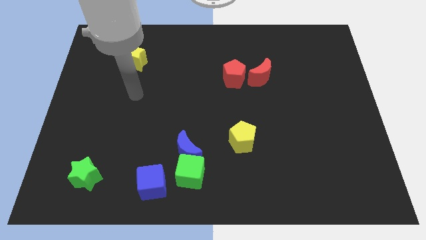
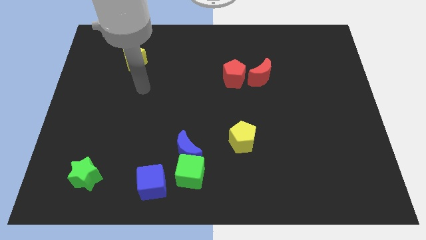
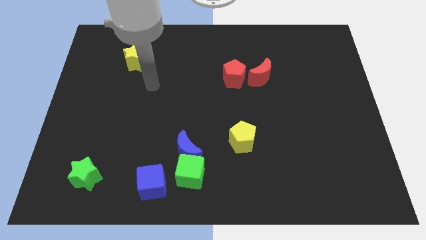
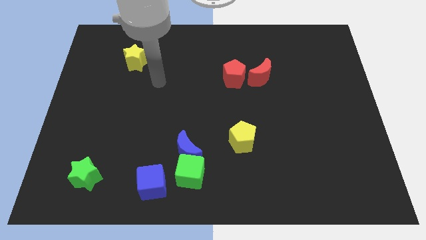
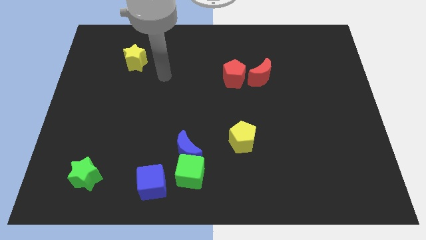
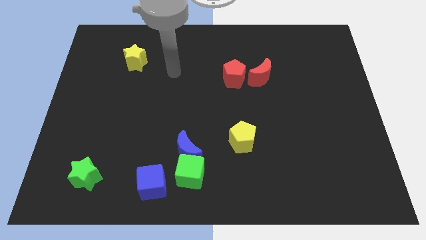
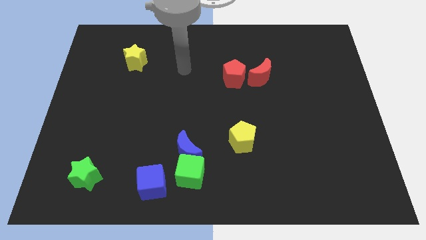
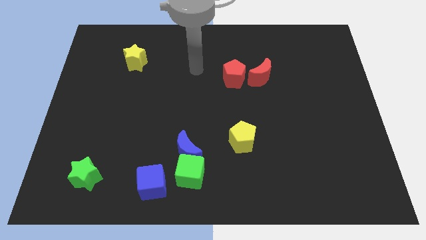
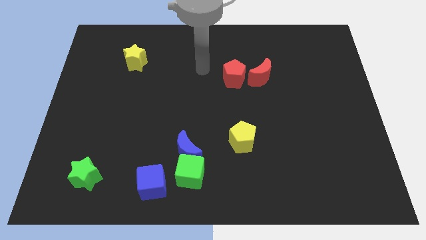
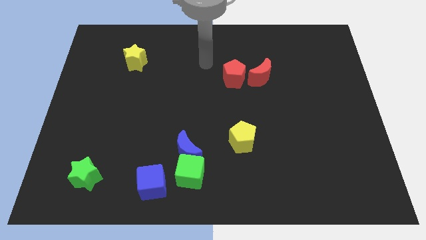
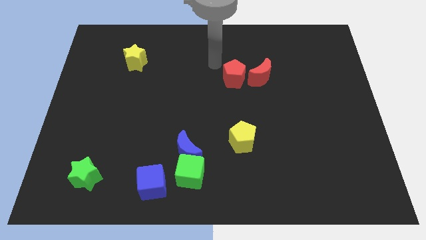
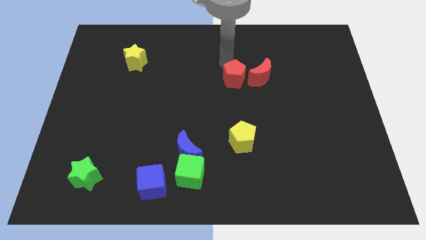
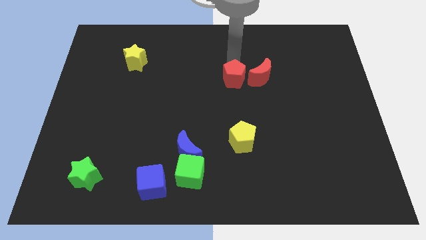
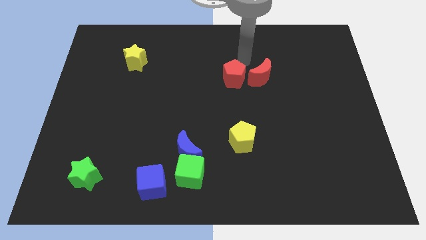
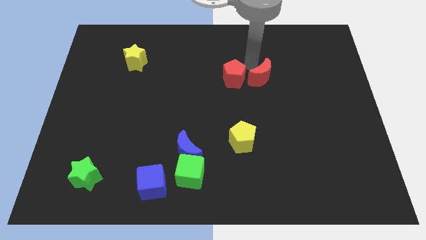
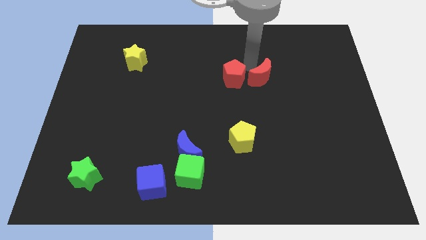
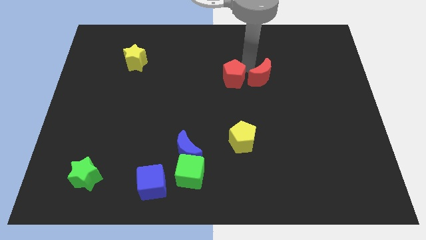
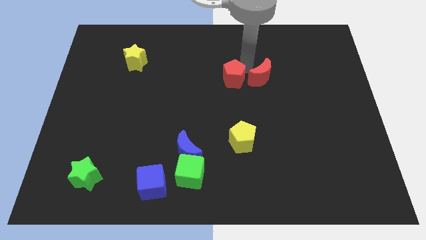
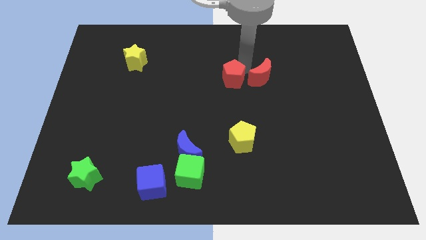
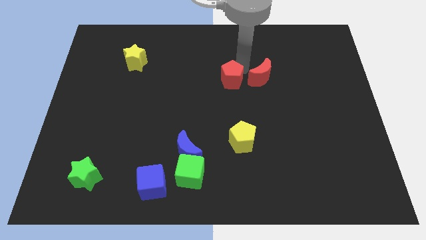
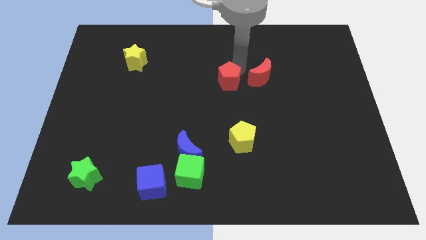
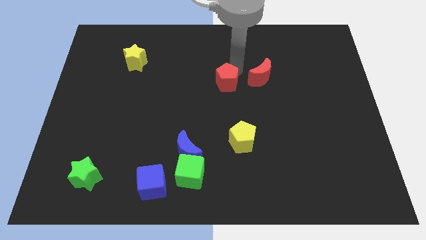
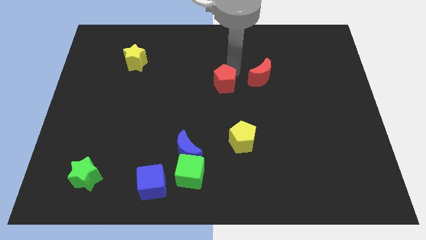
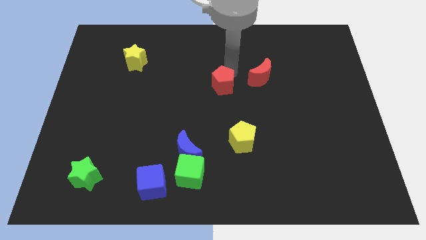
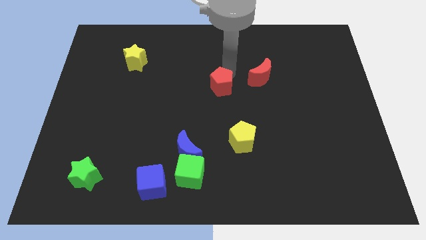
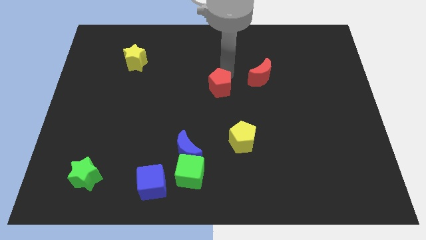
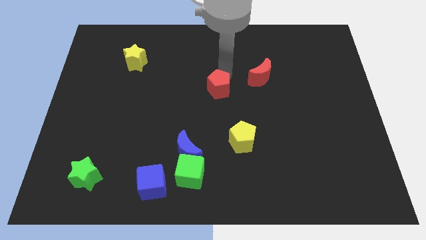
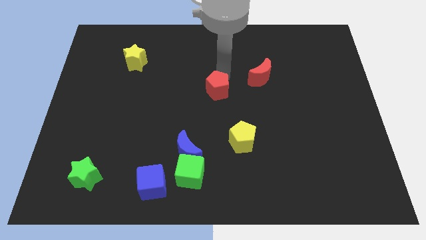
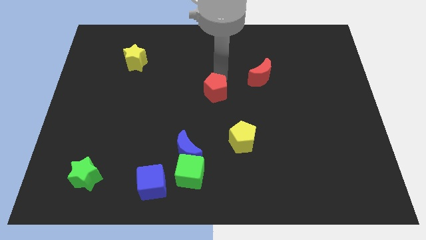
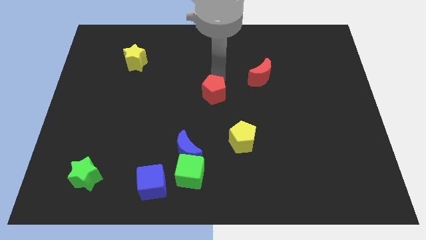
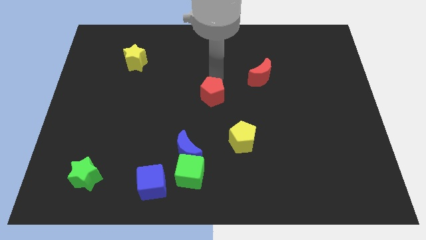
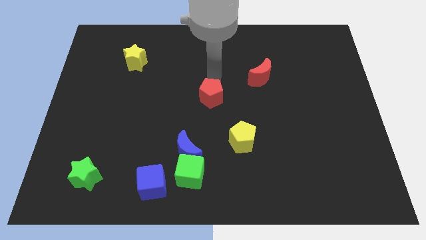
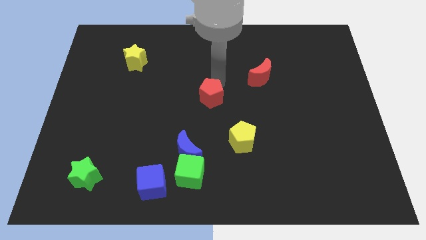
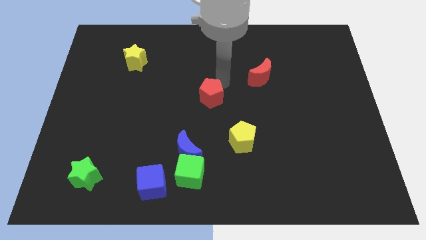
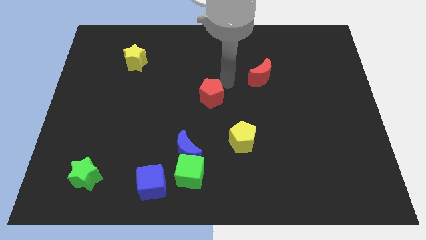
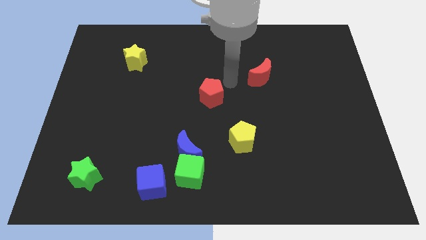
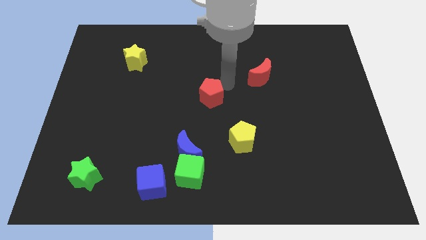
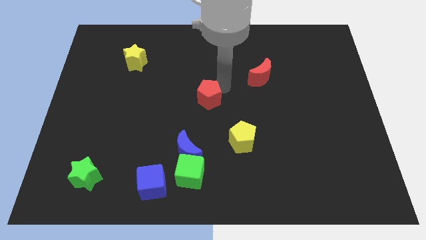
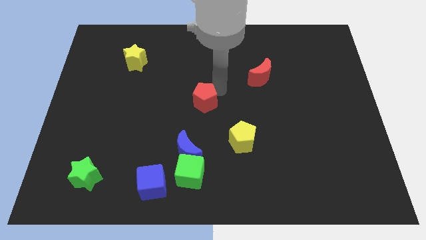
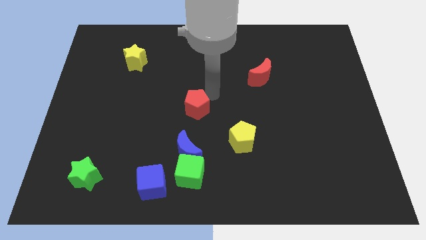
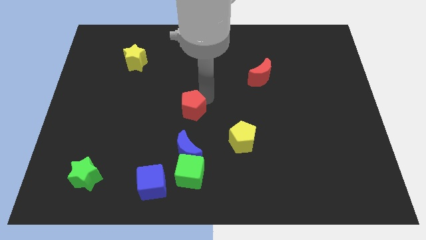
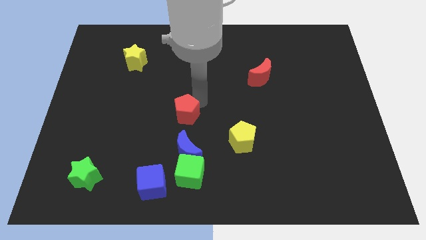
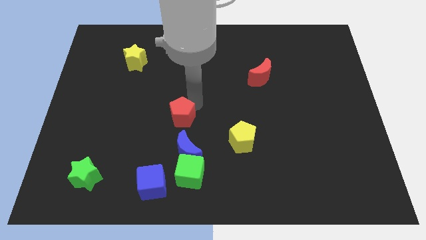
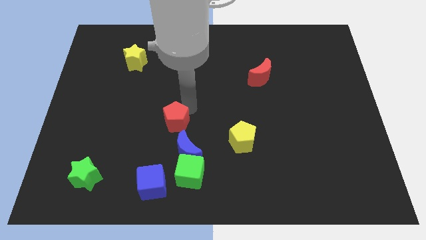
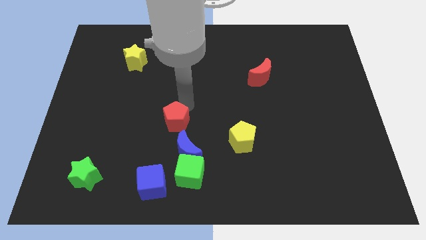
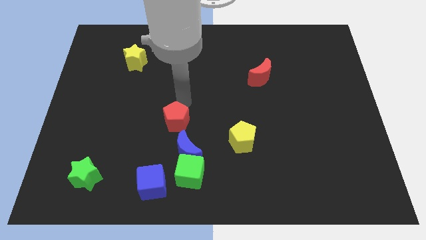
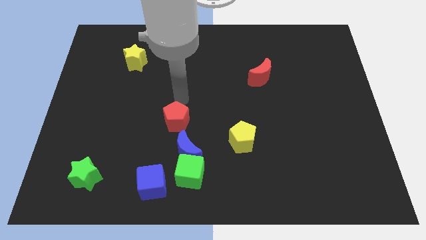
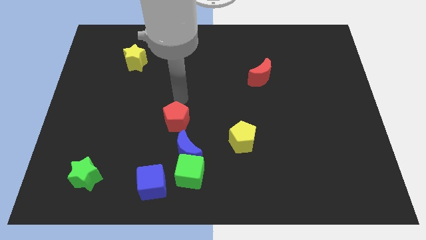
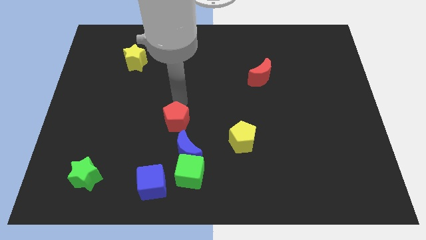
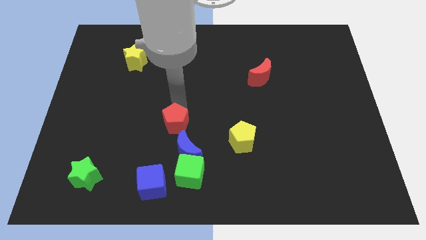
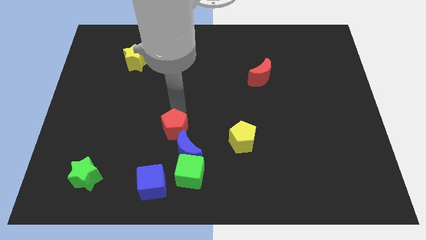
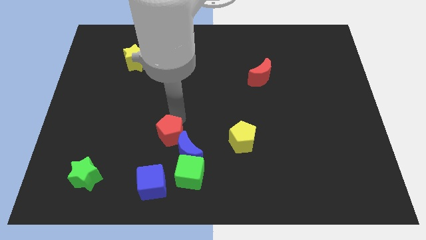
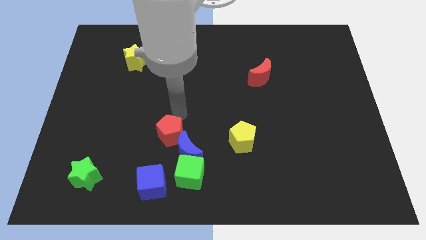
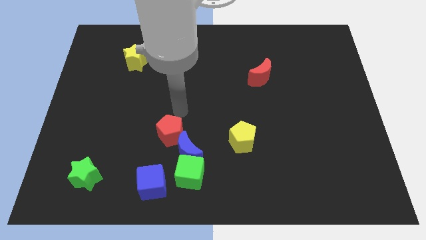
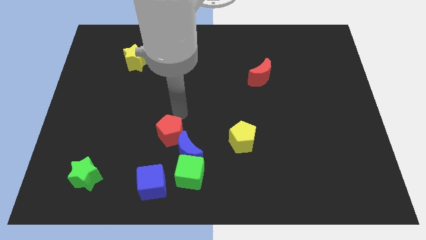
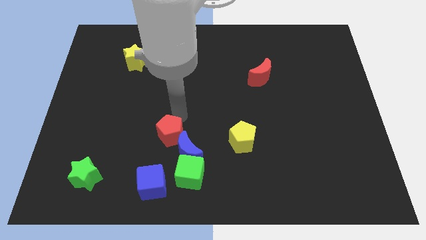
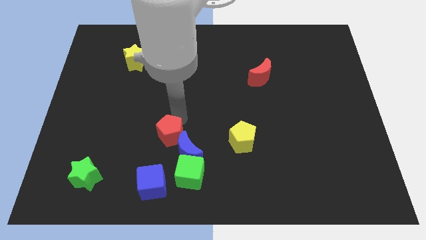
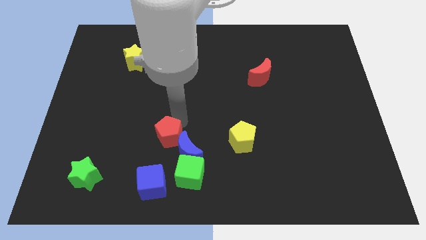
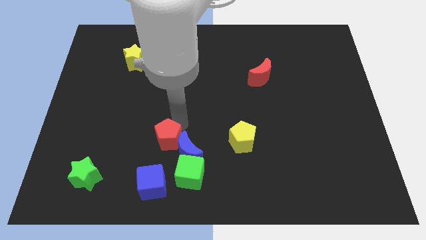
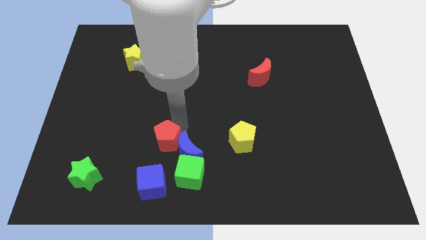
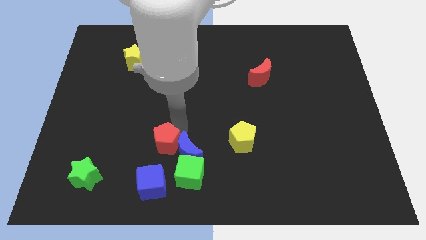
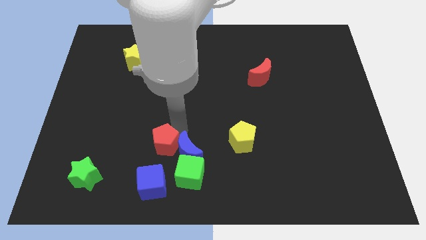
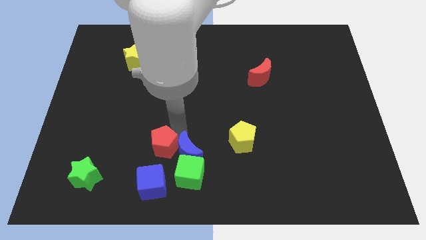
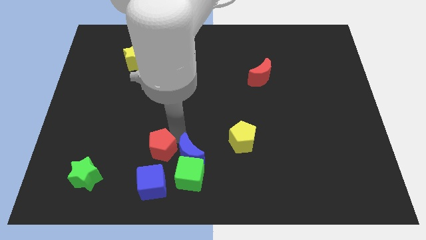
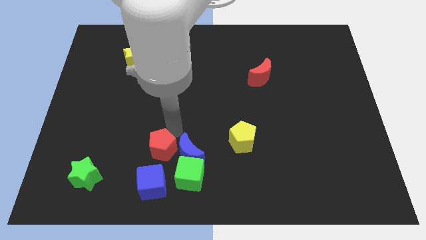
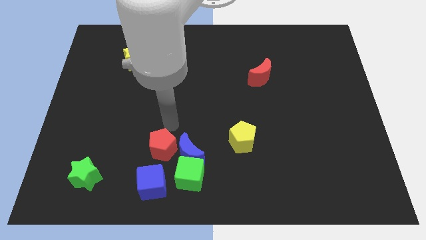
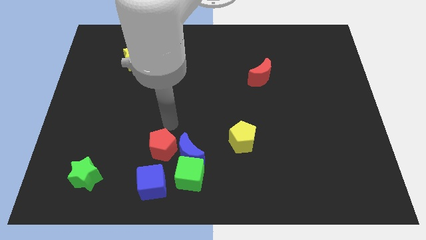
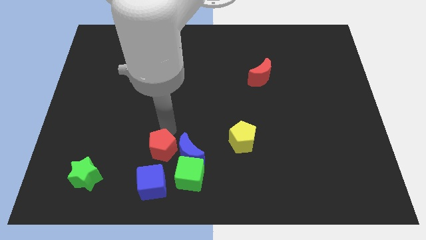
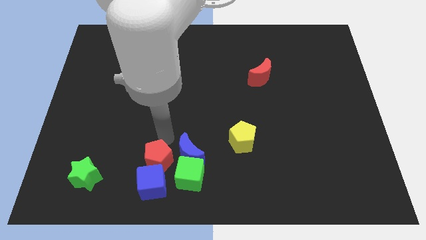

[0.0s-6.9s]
slide the red pentagon towards the blue cube
